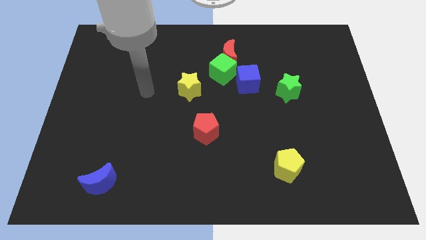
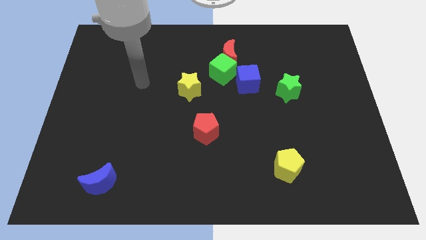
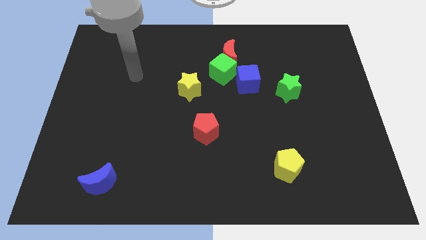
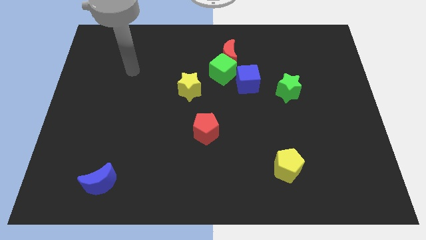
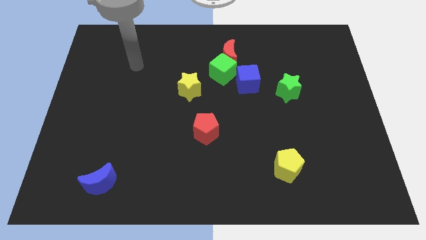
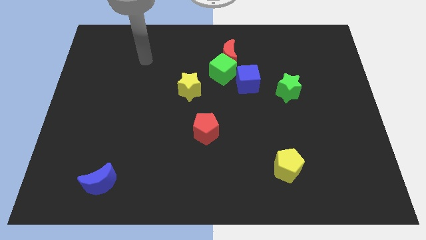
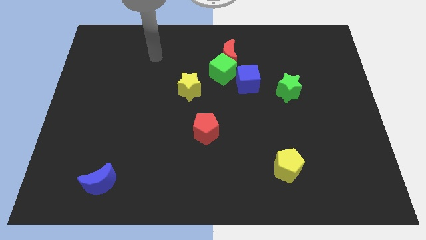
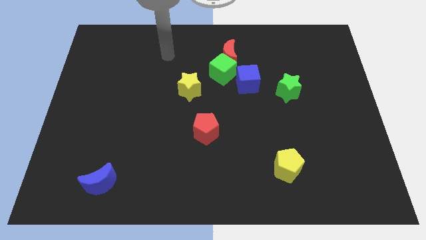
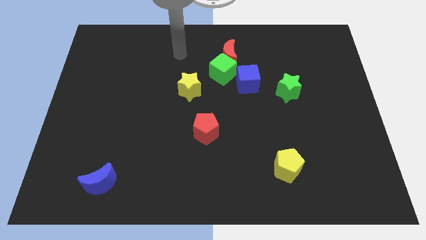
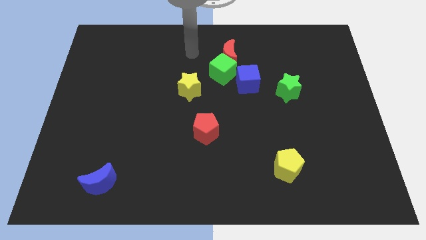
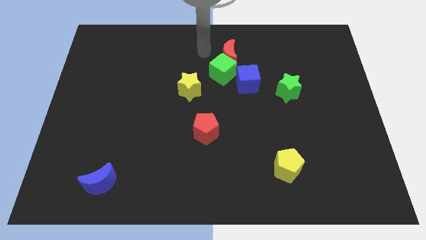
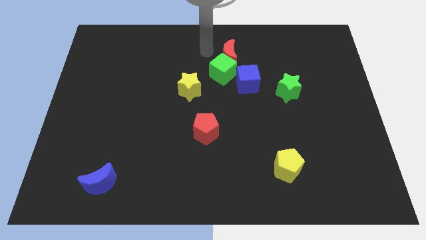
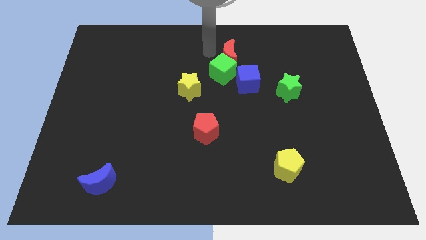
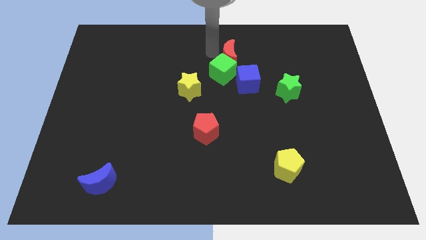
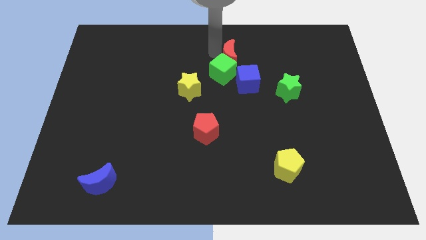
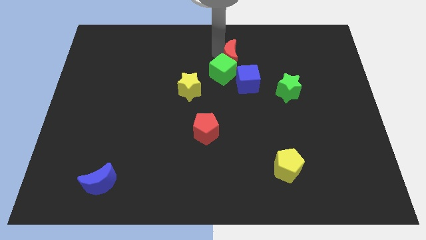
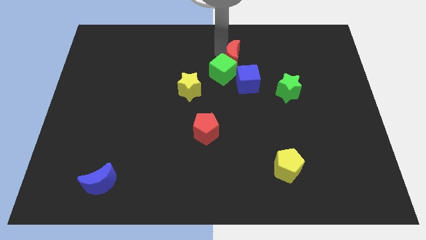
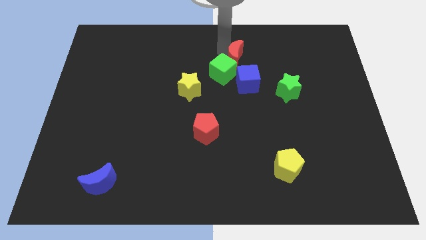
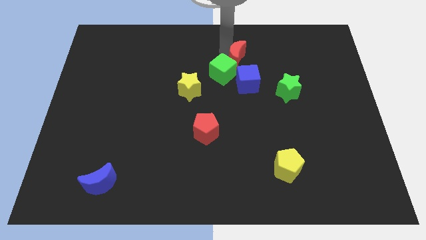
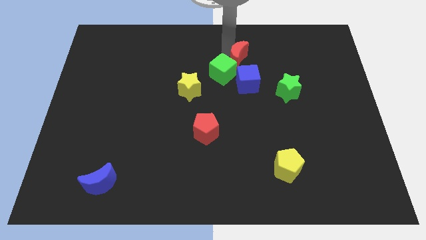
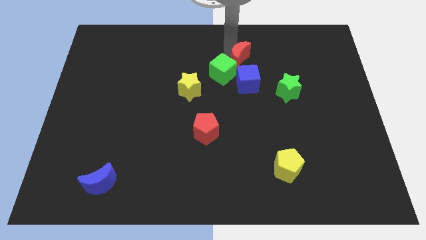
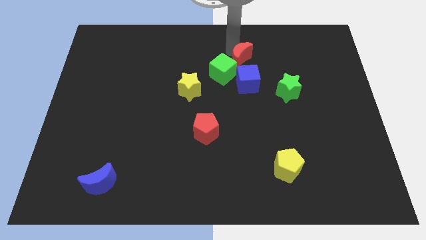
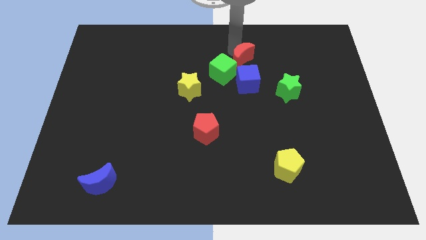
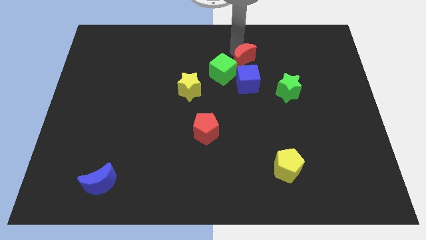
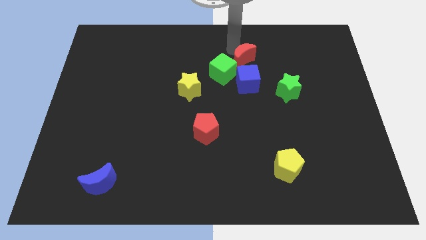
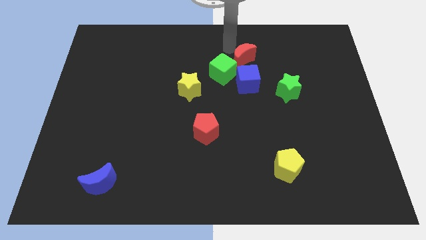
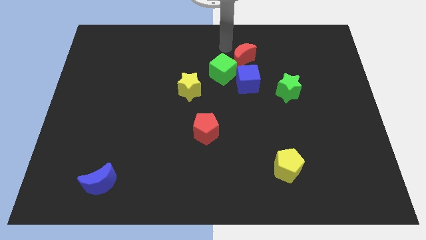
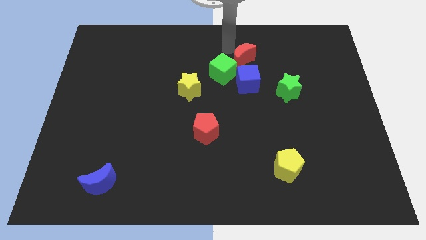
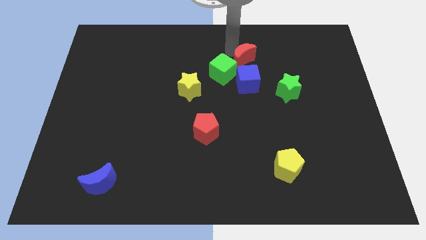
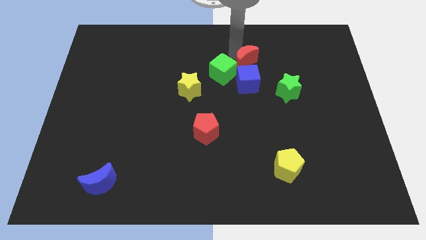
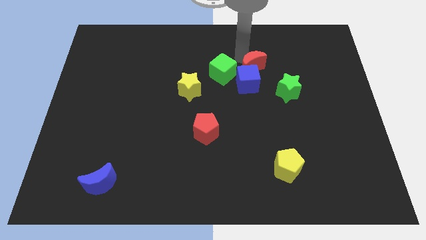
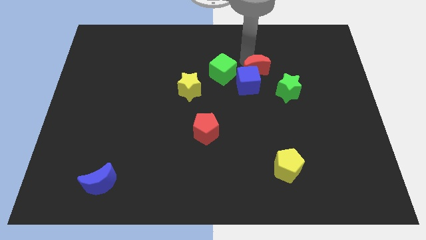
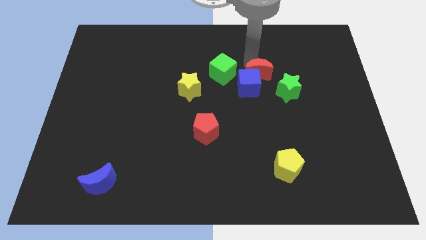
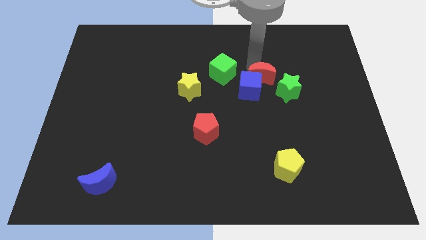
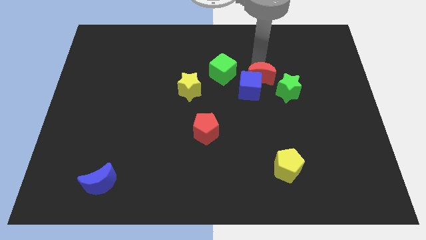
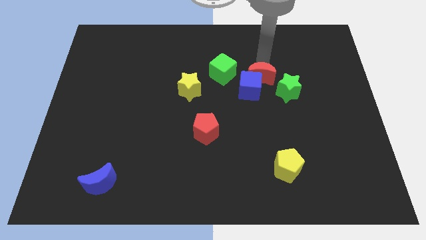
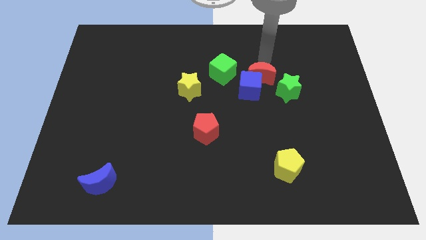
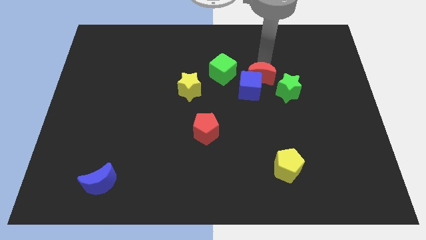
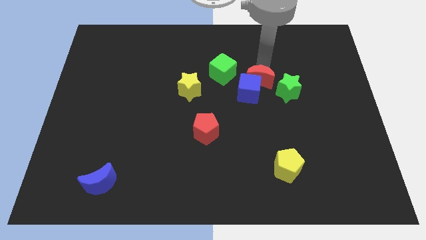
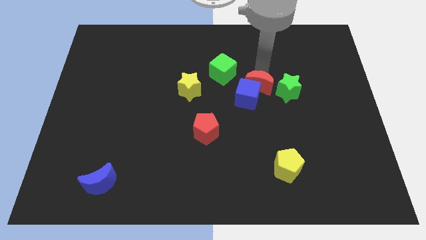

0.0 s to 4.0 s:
slightly push the red moon down

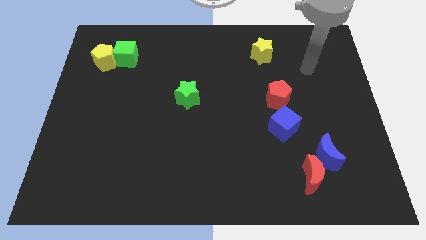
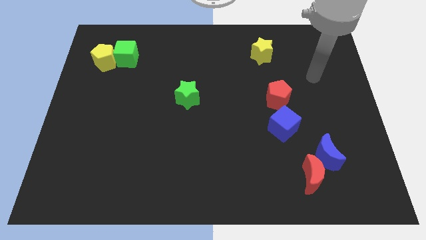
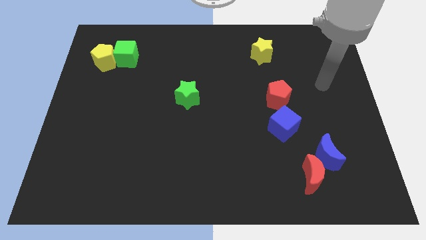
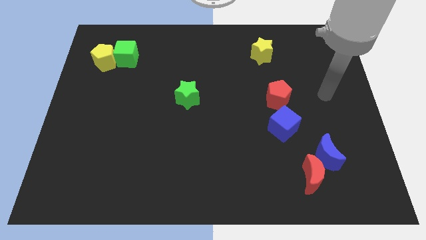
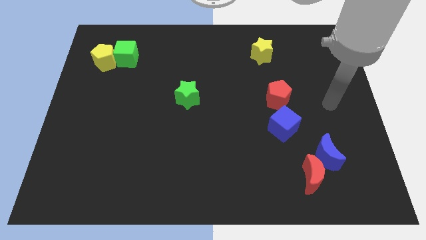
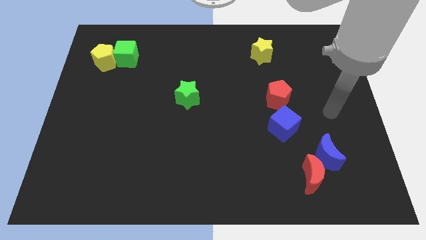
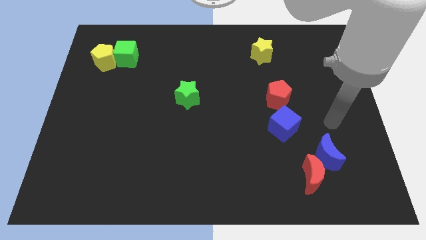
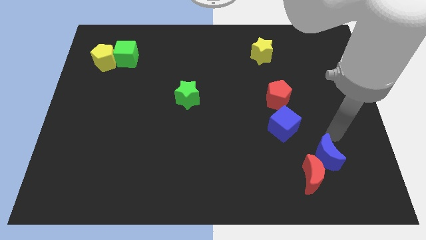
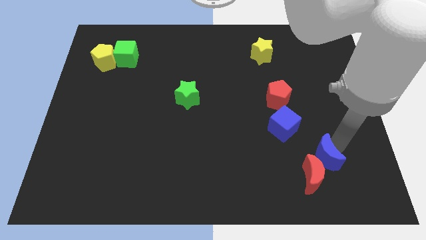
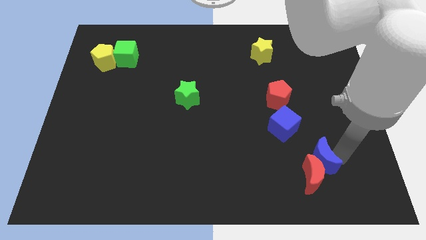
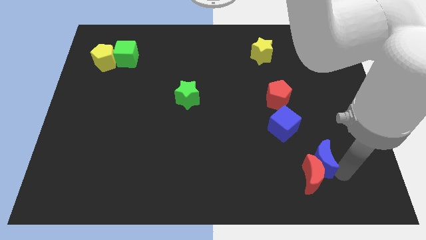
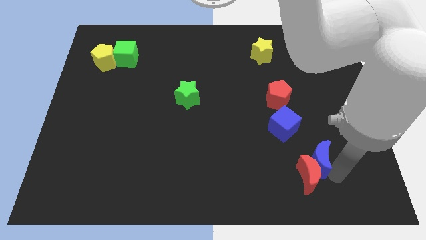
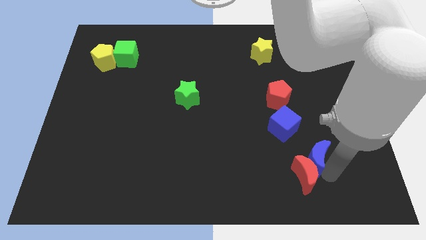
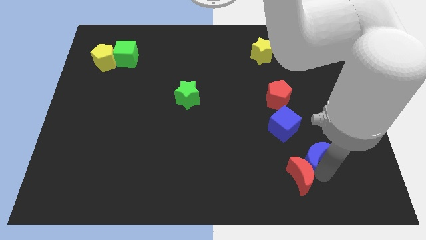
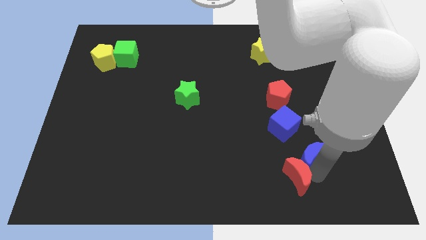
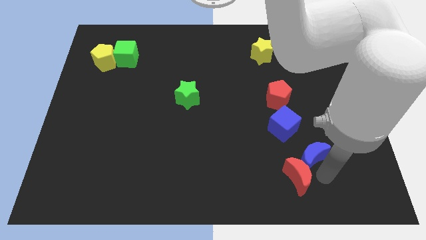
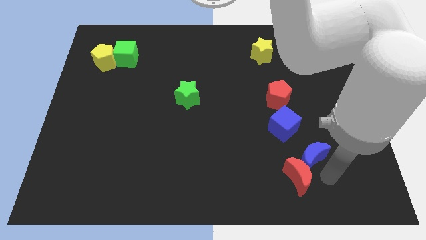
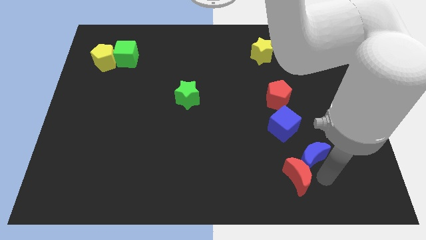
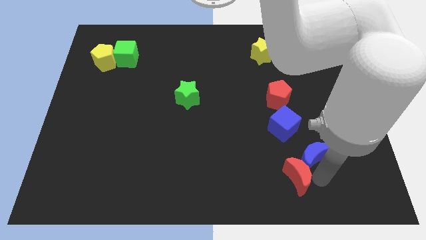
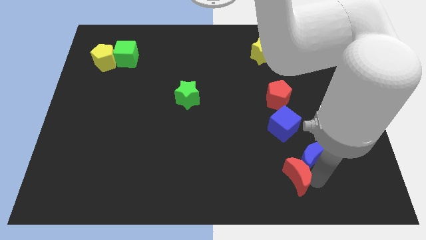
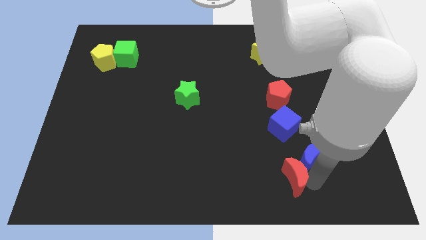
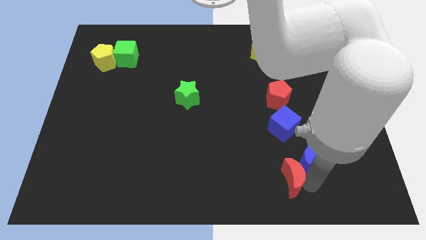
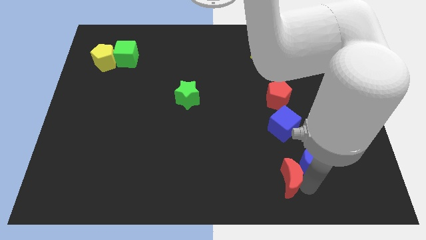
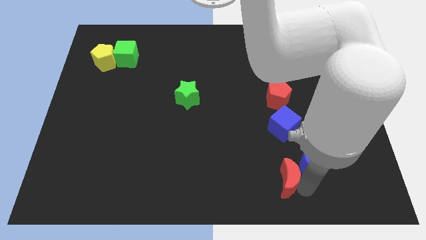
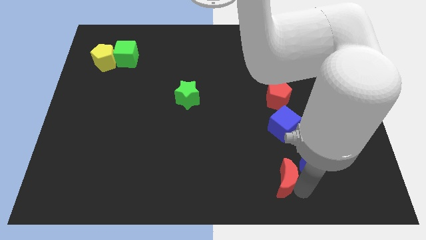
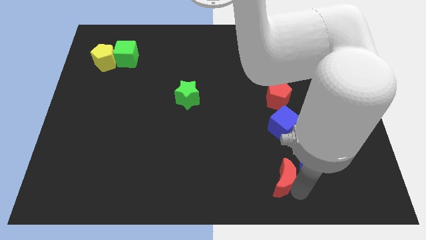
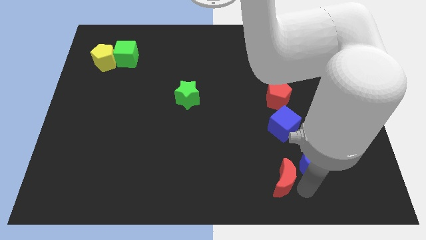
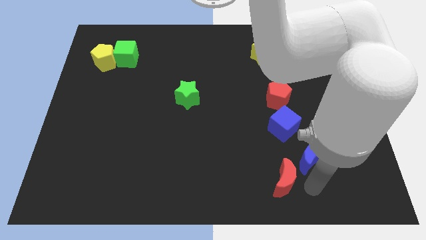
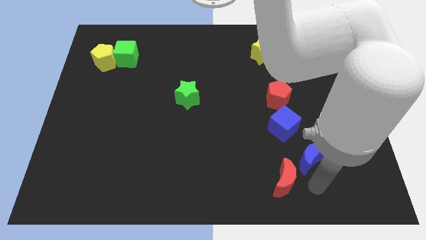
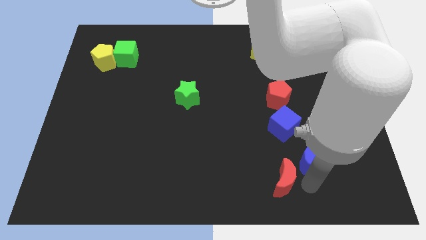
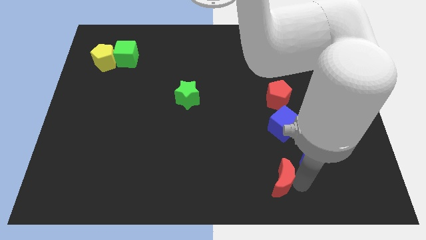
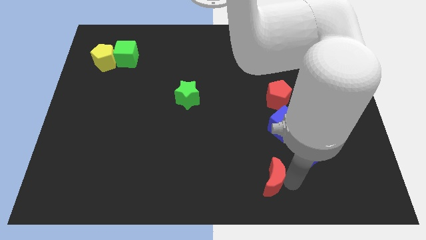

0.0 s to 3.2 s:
push the red moon to the left a little

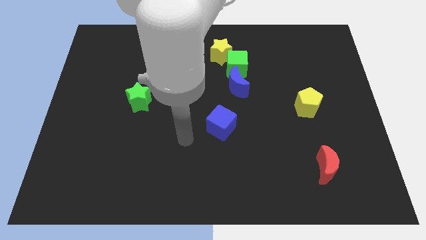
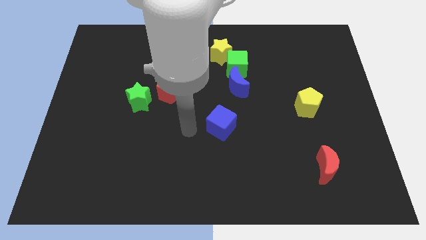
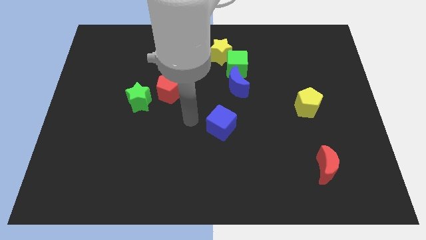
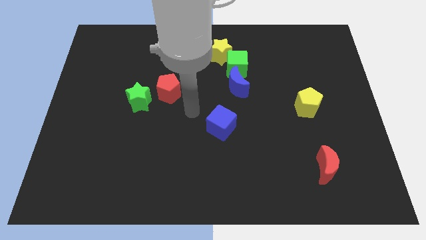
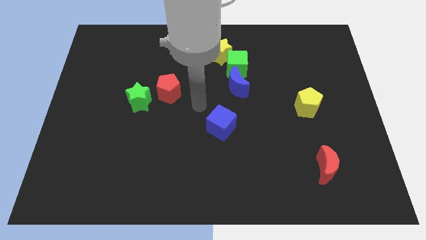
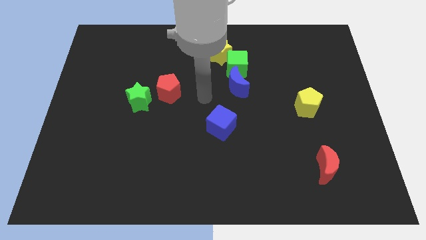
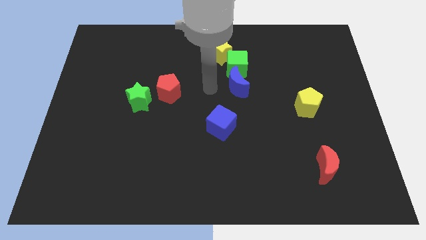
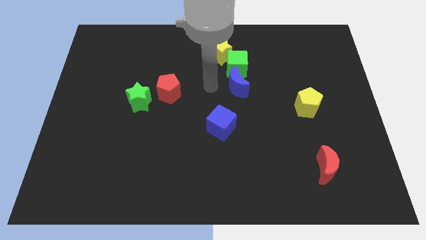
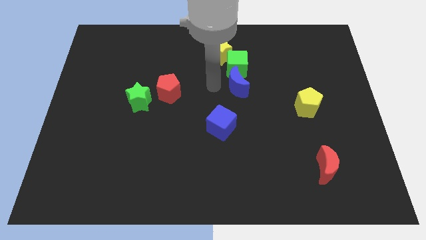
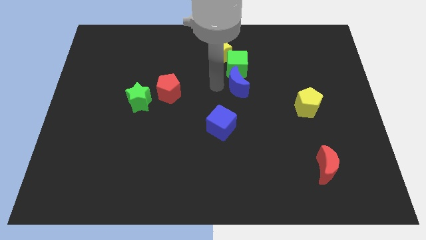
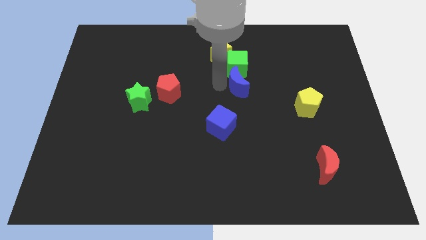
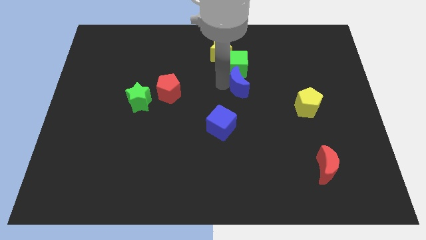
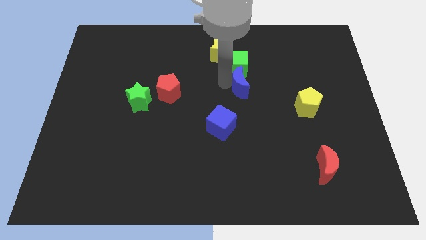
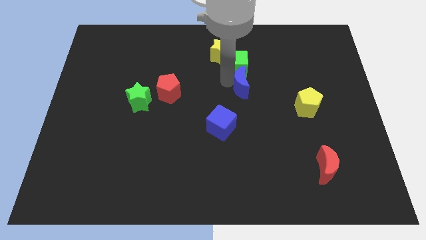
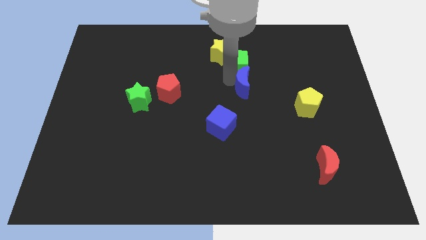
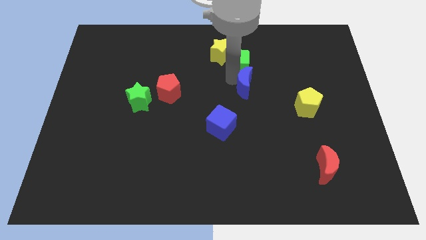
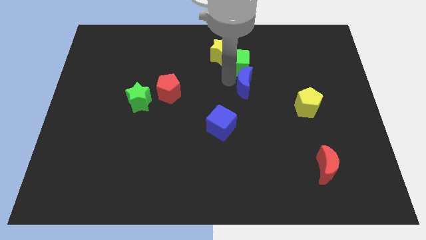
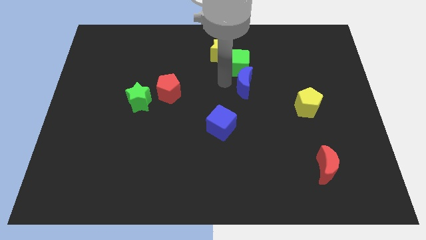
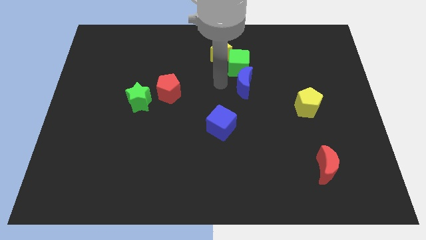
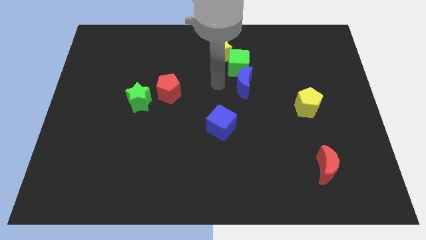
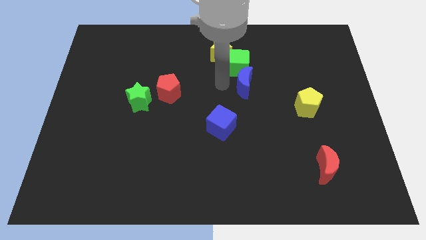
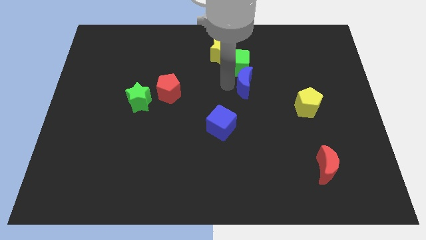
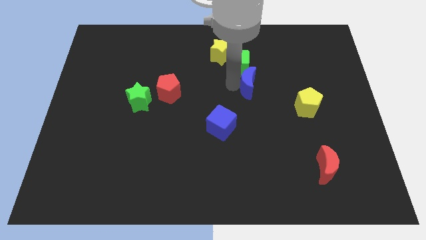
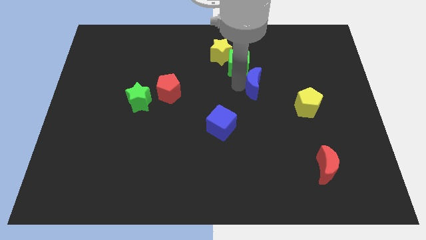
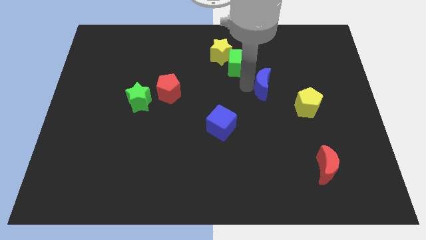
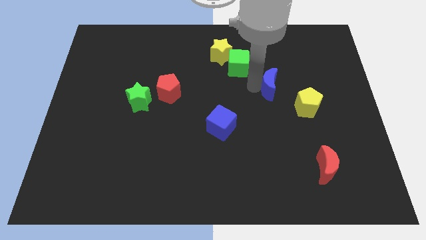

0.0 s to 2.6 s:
slightly move the blue moon right
